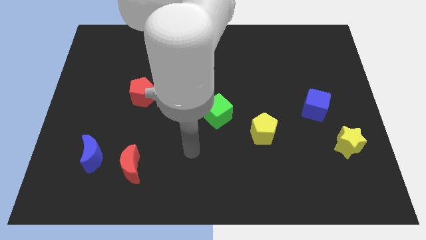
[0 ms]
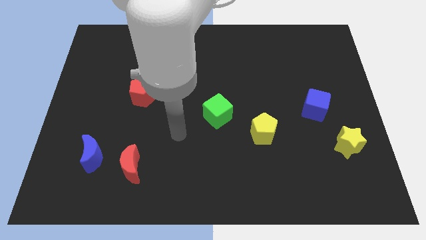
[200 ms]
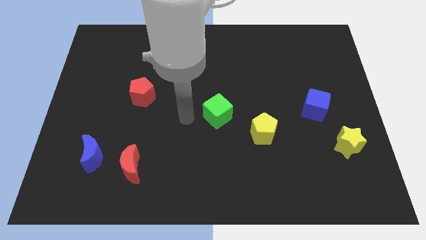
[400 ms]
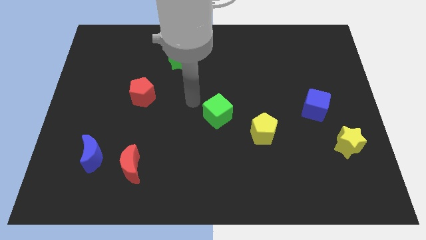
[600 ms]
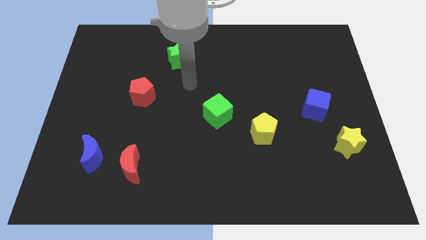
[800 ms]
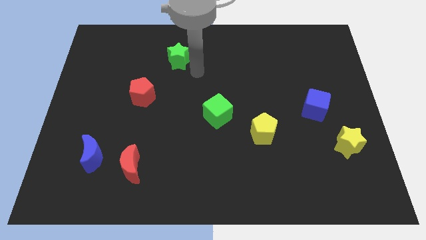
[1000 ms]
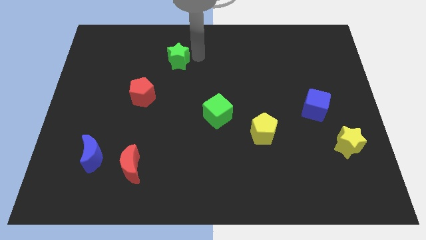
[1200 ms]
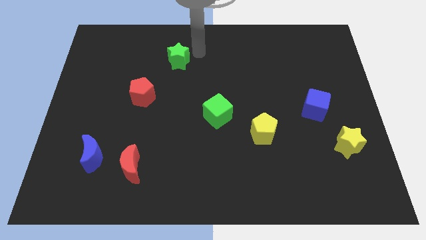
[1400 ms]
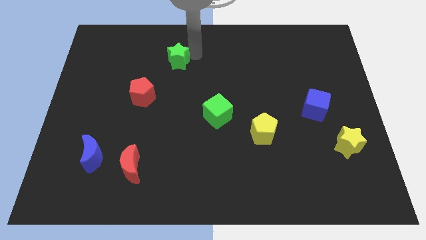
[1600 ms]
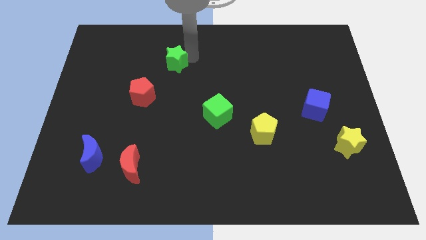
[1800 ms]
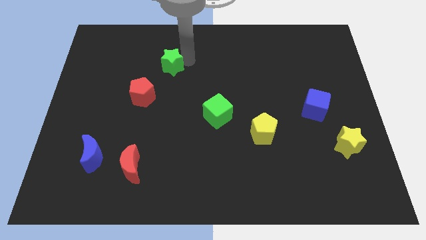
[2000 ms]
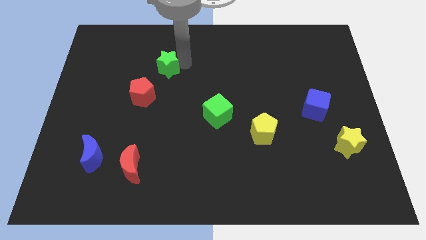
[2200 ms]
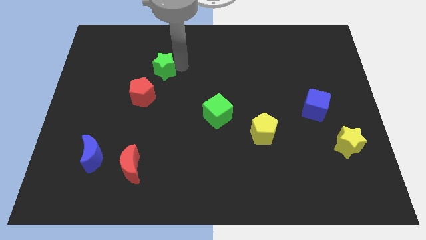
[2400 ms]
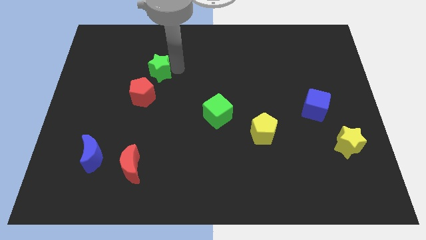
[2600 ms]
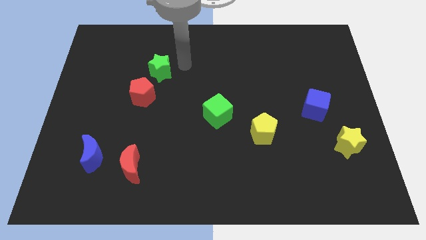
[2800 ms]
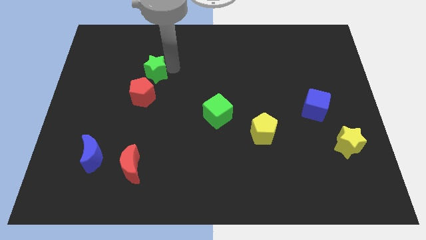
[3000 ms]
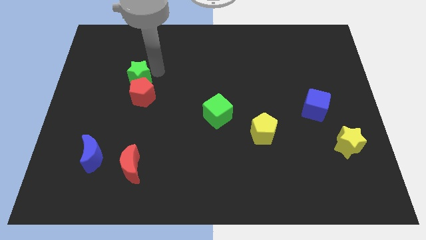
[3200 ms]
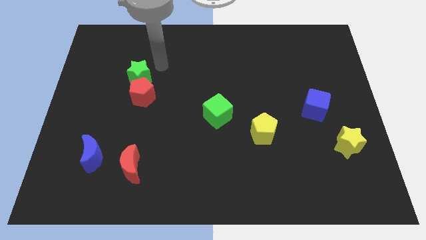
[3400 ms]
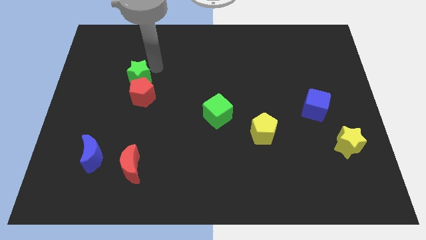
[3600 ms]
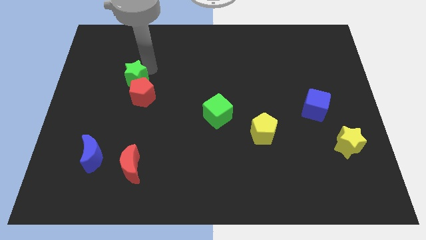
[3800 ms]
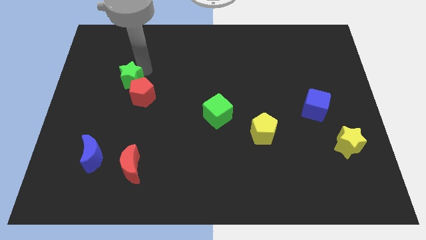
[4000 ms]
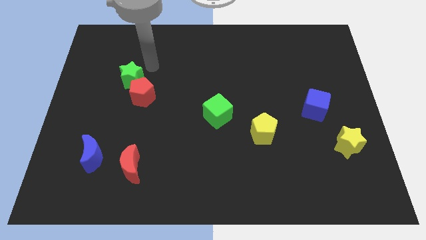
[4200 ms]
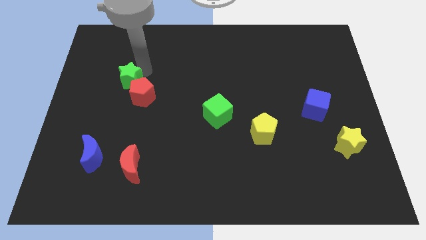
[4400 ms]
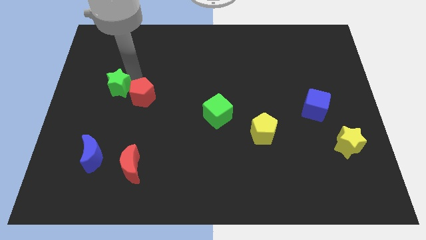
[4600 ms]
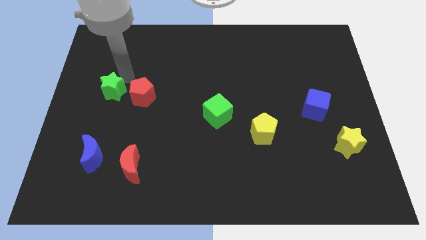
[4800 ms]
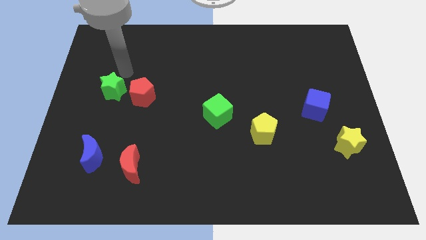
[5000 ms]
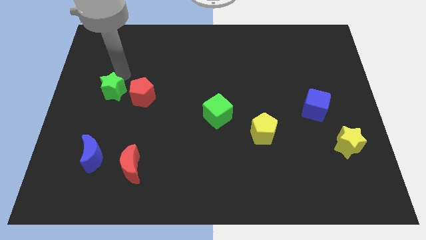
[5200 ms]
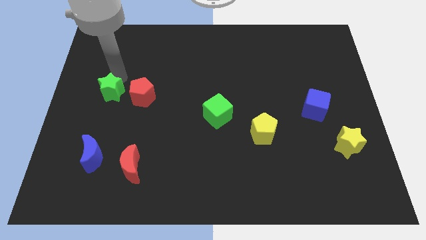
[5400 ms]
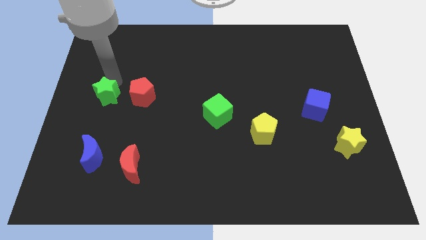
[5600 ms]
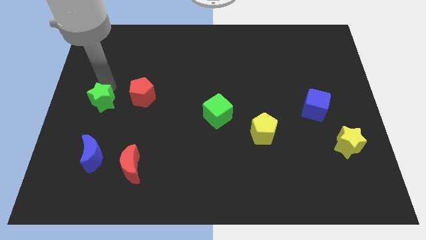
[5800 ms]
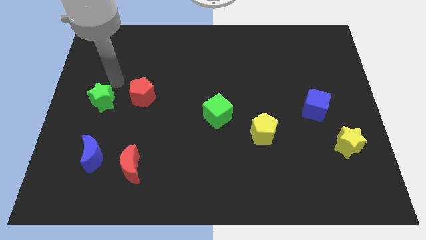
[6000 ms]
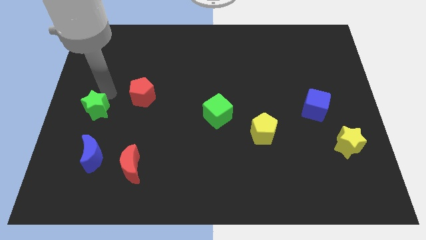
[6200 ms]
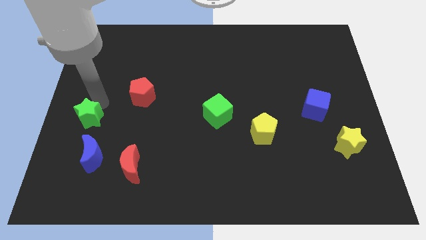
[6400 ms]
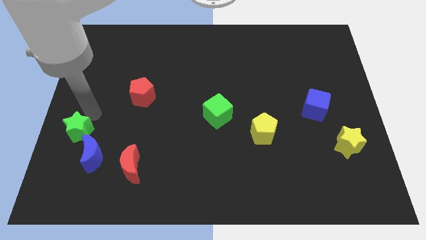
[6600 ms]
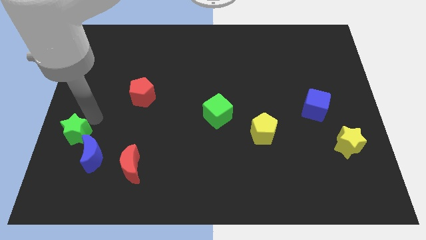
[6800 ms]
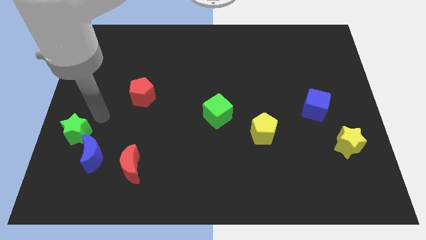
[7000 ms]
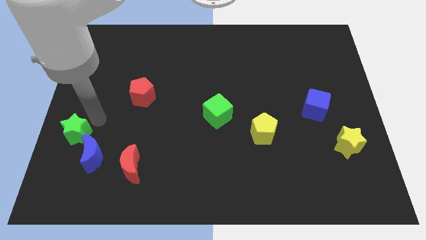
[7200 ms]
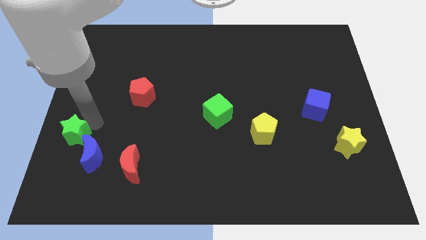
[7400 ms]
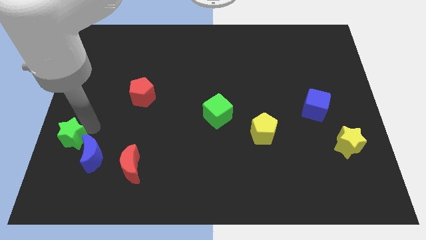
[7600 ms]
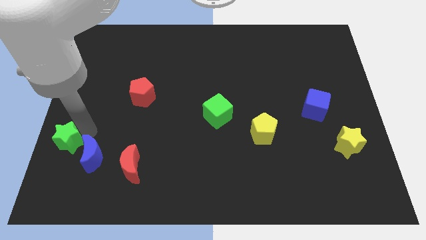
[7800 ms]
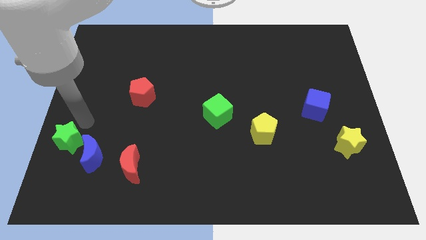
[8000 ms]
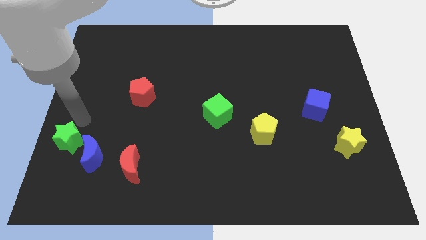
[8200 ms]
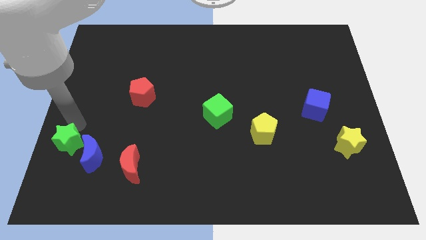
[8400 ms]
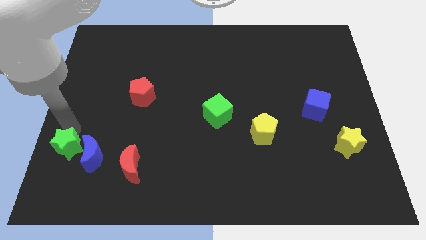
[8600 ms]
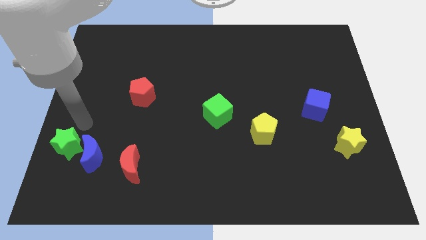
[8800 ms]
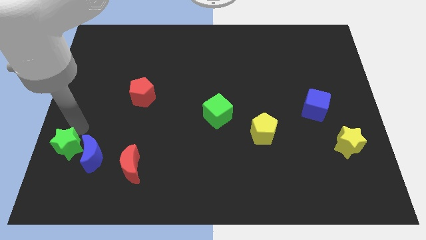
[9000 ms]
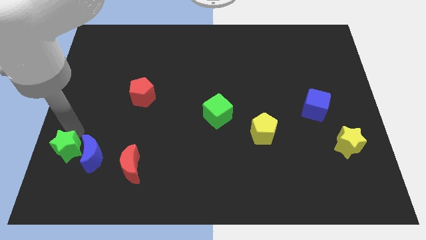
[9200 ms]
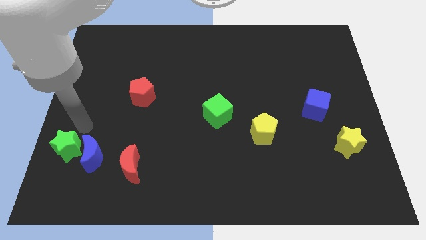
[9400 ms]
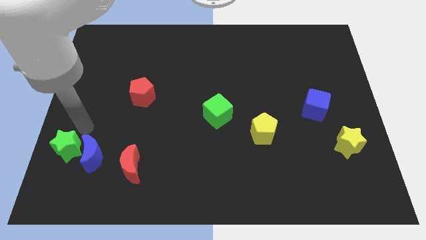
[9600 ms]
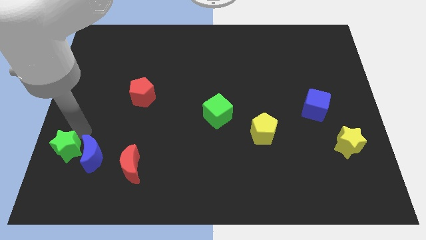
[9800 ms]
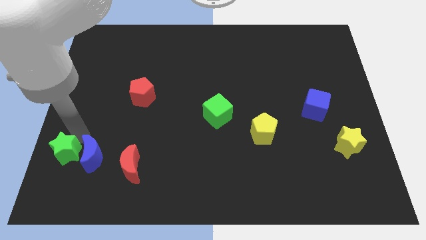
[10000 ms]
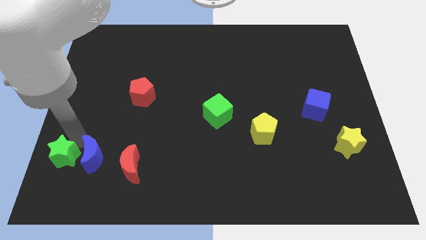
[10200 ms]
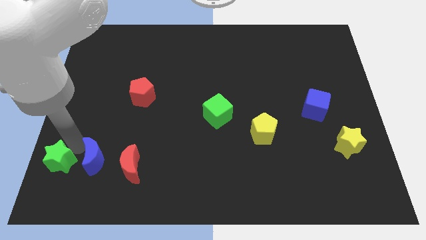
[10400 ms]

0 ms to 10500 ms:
slide the green star to the bottom left corner

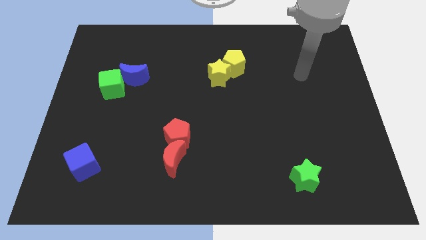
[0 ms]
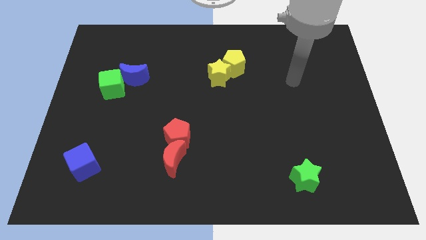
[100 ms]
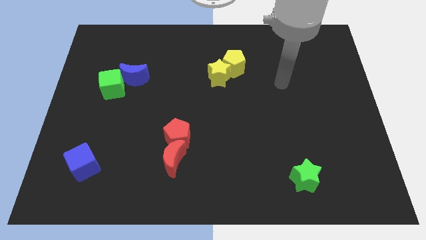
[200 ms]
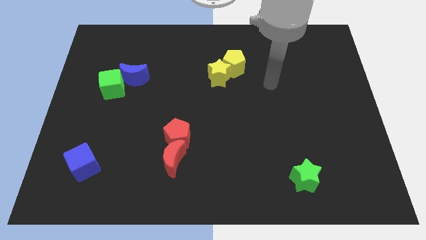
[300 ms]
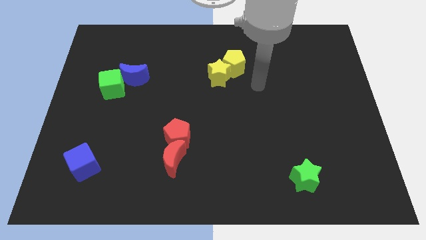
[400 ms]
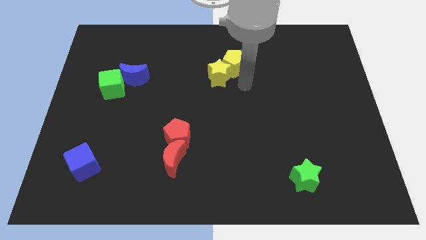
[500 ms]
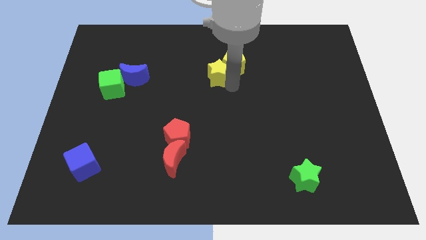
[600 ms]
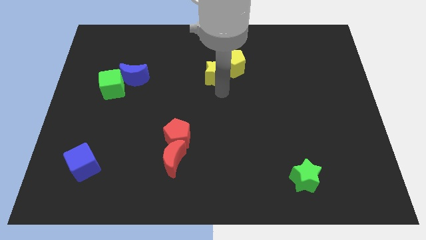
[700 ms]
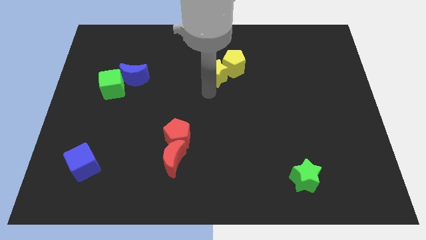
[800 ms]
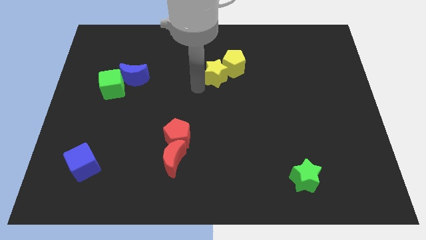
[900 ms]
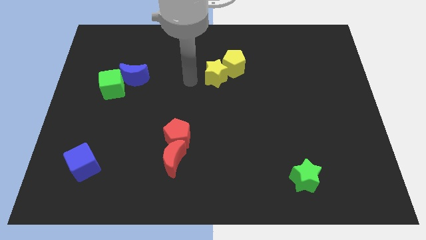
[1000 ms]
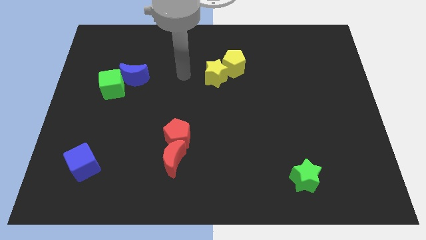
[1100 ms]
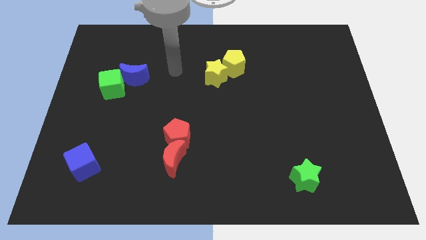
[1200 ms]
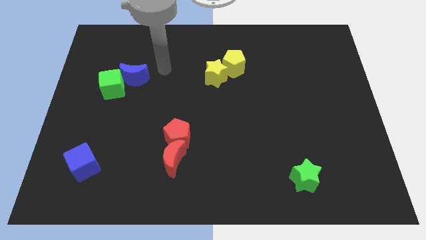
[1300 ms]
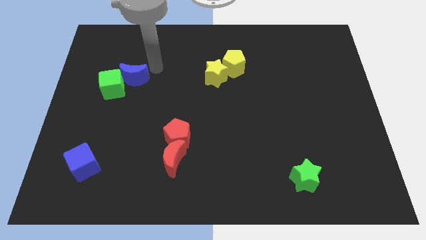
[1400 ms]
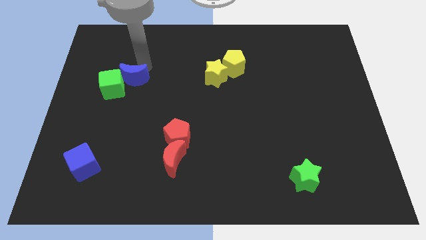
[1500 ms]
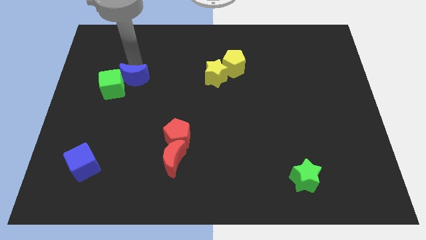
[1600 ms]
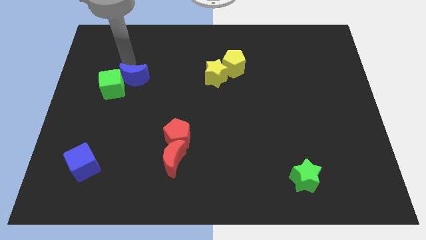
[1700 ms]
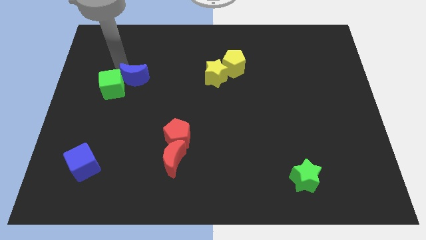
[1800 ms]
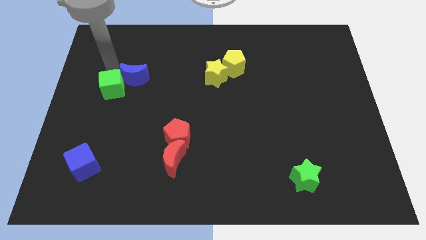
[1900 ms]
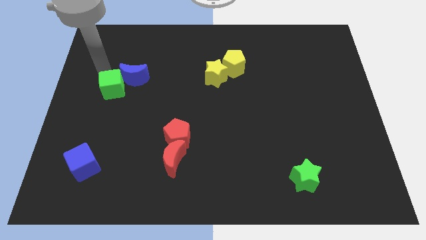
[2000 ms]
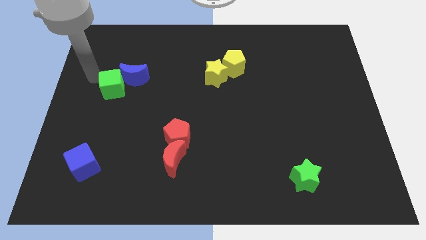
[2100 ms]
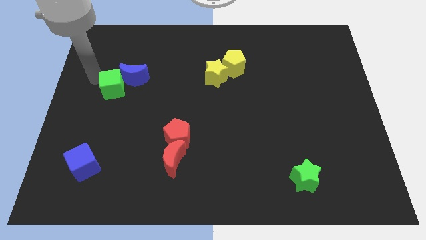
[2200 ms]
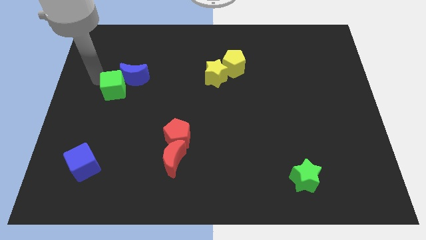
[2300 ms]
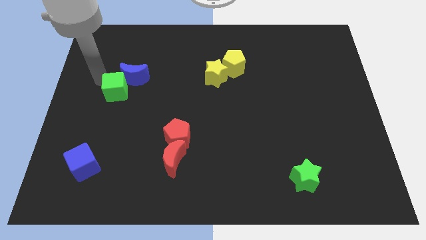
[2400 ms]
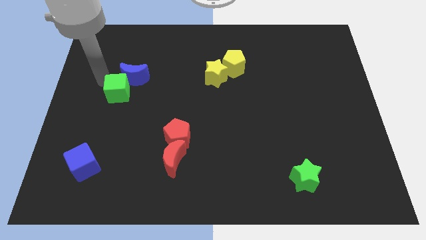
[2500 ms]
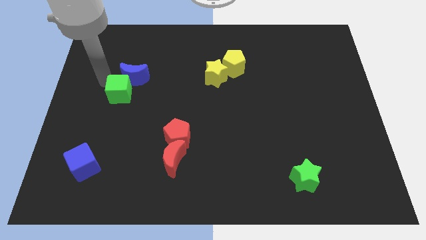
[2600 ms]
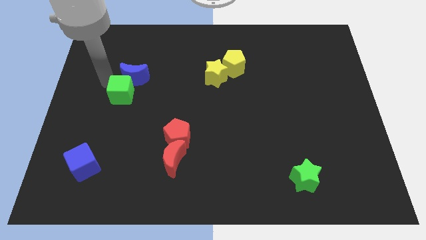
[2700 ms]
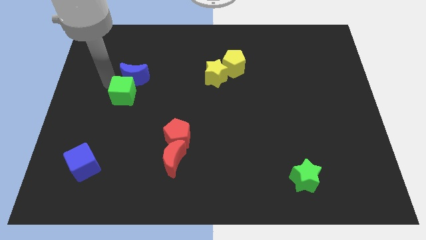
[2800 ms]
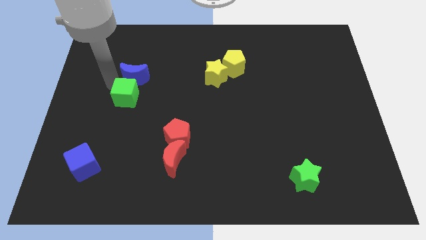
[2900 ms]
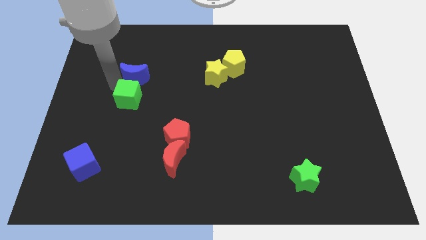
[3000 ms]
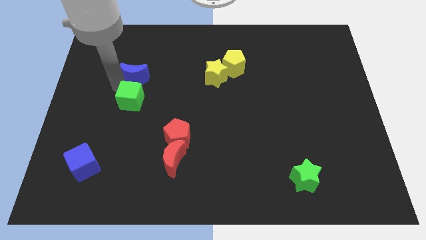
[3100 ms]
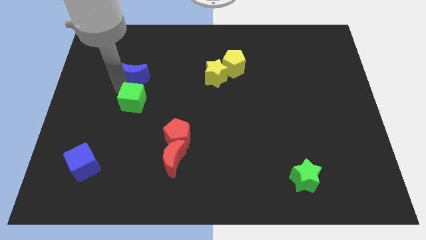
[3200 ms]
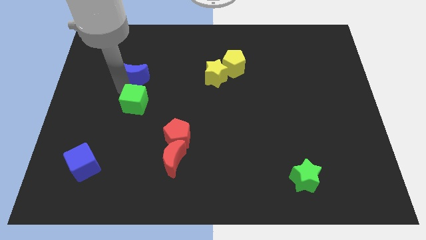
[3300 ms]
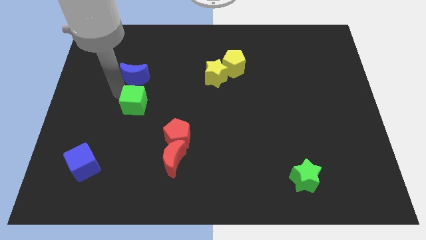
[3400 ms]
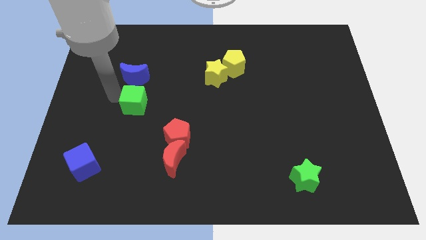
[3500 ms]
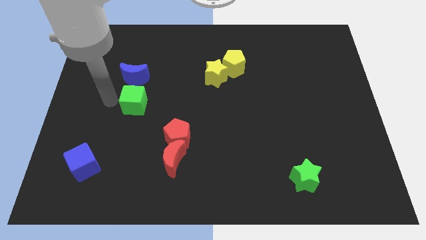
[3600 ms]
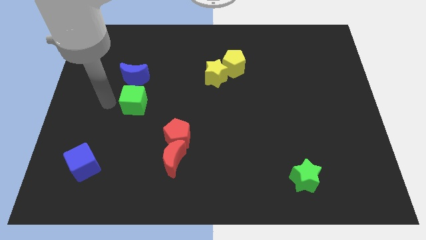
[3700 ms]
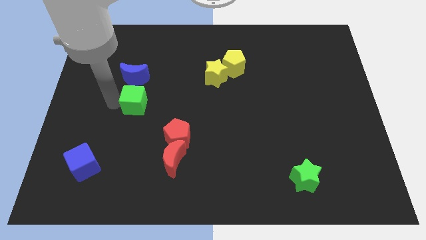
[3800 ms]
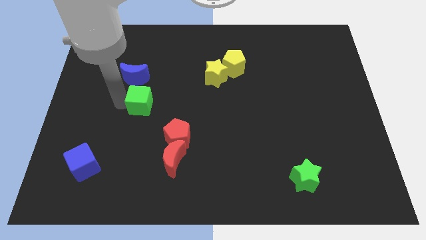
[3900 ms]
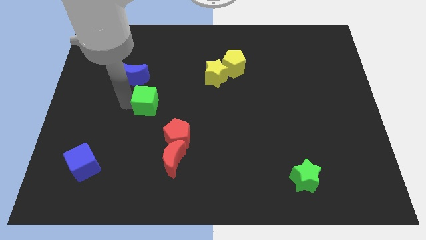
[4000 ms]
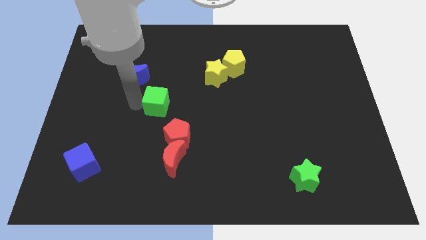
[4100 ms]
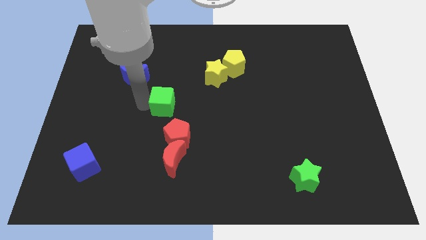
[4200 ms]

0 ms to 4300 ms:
move the green cube to the center of the board
